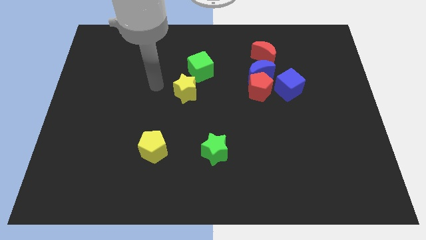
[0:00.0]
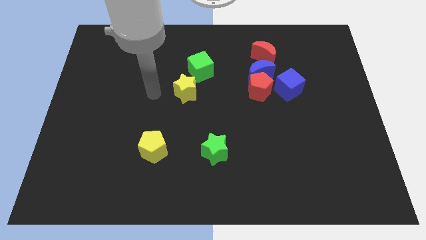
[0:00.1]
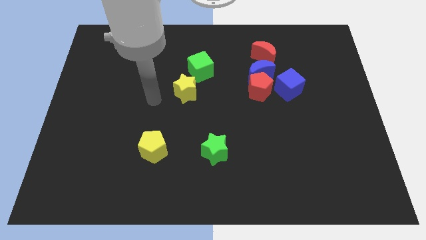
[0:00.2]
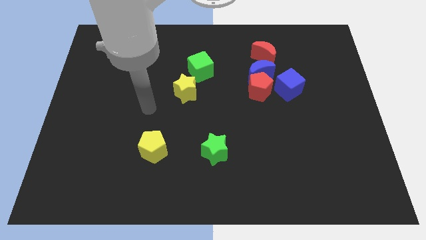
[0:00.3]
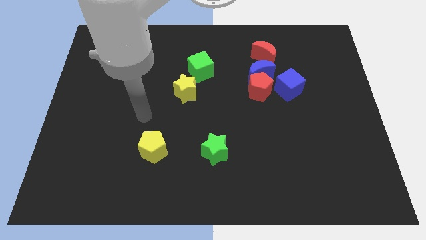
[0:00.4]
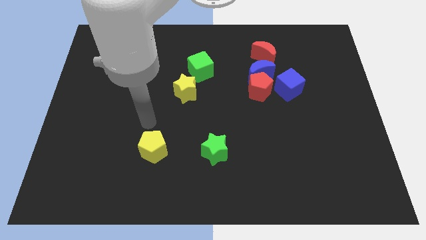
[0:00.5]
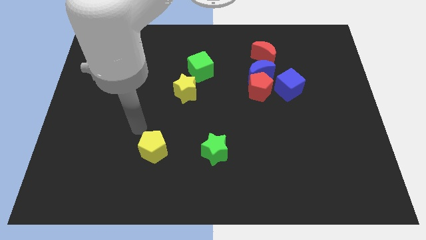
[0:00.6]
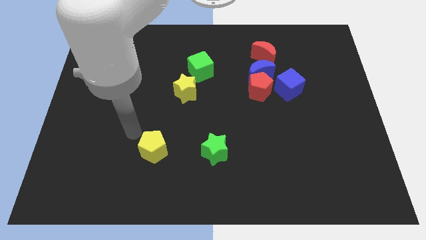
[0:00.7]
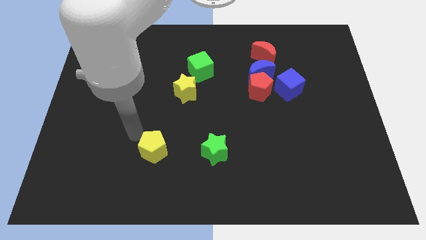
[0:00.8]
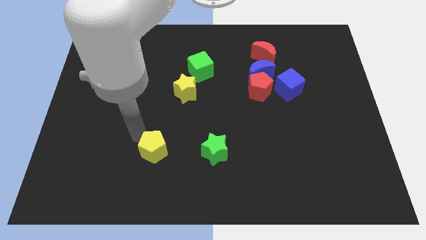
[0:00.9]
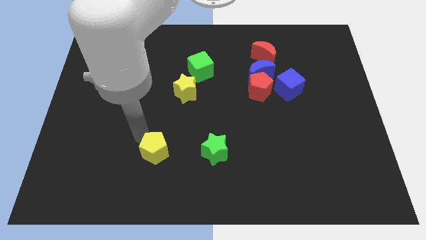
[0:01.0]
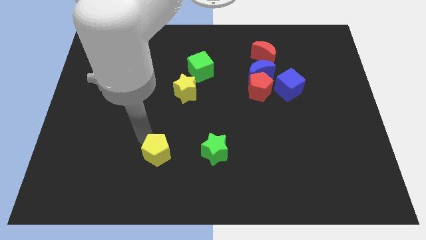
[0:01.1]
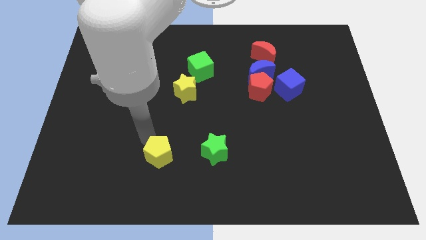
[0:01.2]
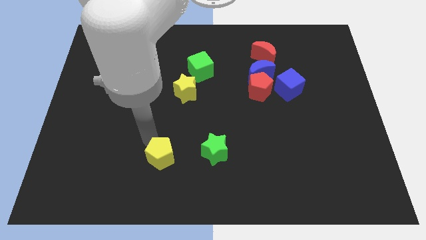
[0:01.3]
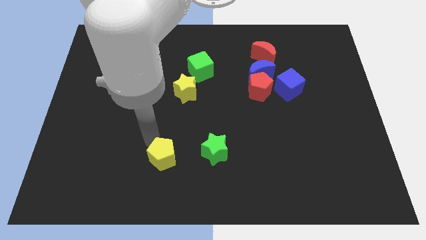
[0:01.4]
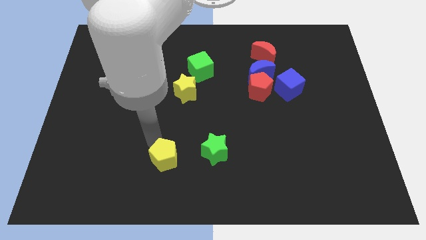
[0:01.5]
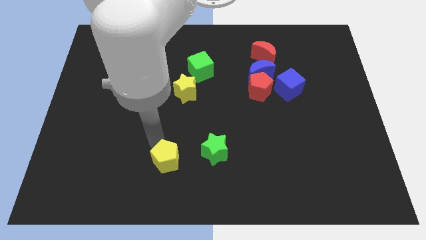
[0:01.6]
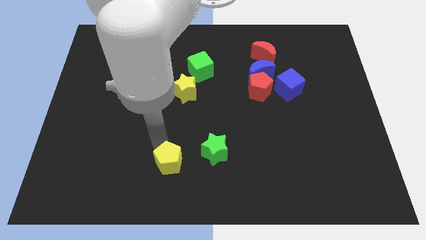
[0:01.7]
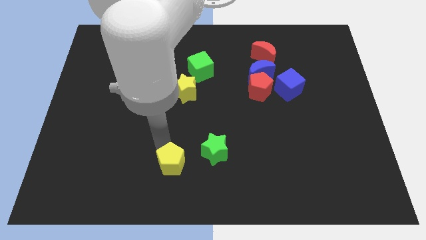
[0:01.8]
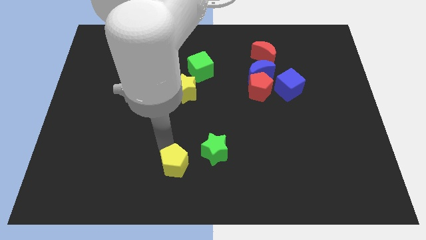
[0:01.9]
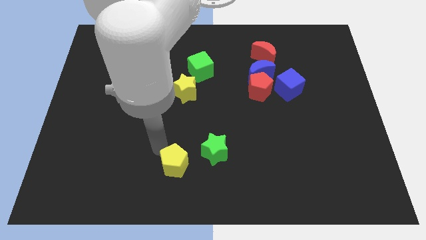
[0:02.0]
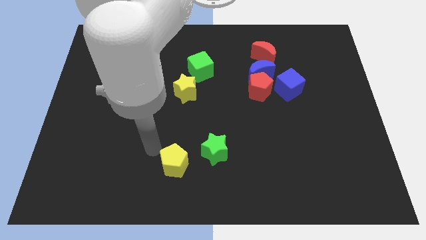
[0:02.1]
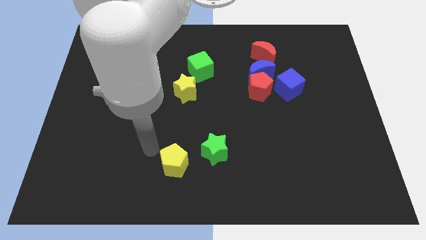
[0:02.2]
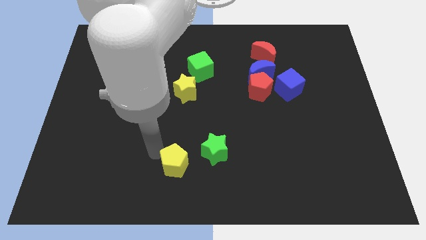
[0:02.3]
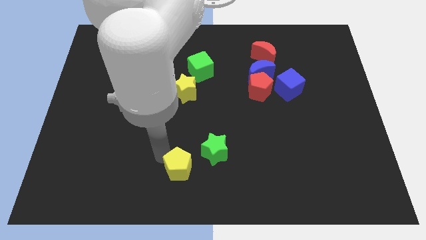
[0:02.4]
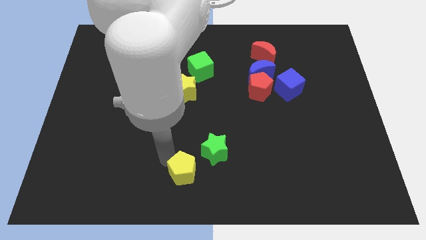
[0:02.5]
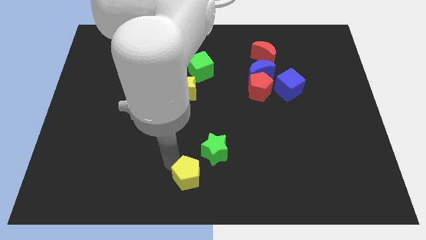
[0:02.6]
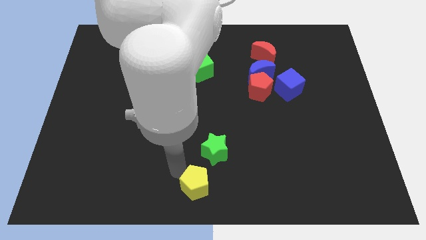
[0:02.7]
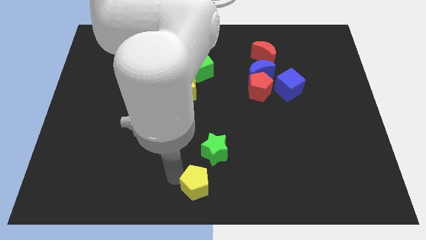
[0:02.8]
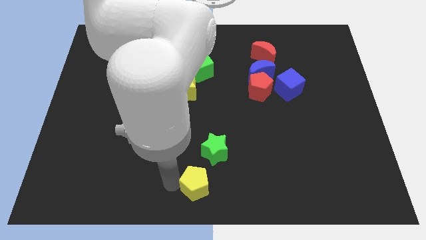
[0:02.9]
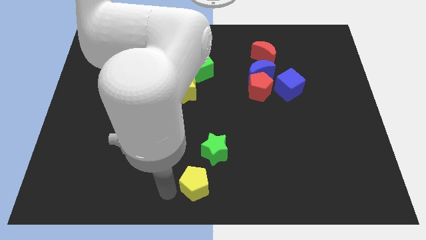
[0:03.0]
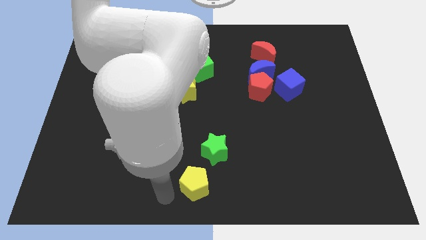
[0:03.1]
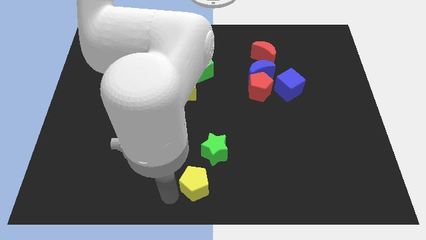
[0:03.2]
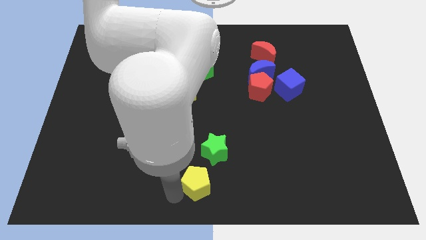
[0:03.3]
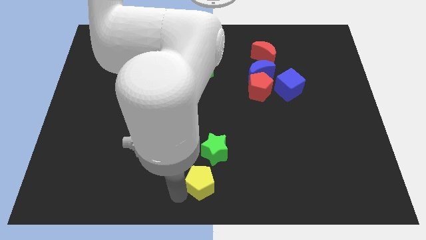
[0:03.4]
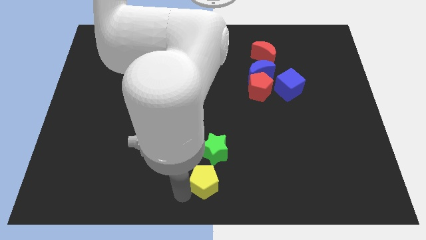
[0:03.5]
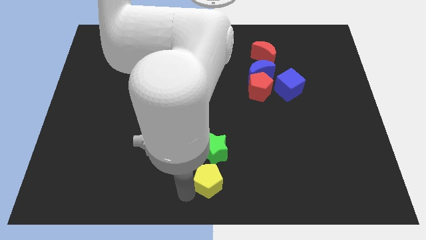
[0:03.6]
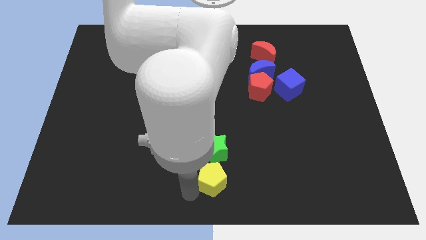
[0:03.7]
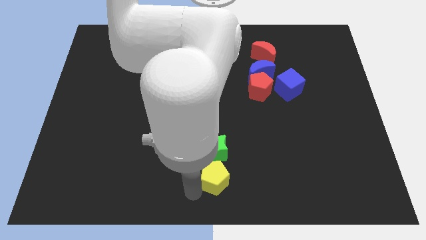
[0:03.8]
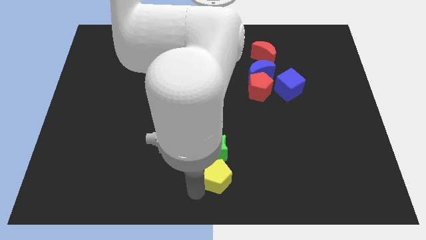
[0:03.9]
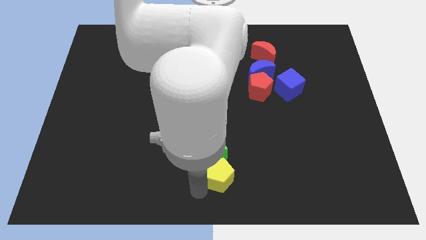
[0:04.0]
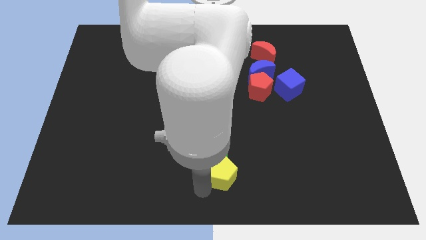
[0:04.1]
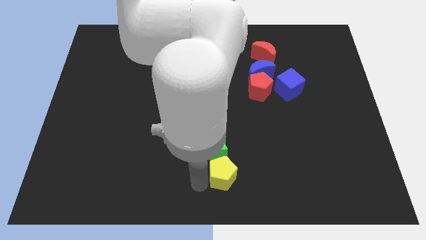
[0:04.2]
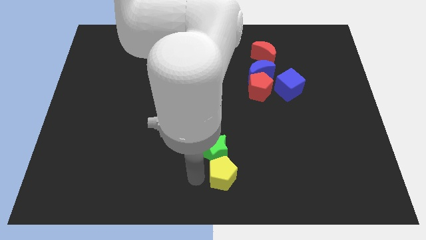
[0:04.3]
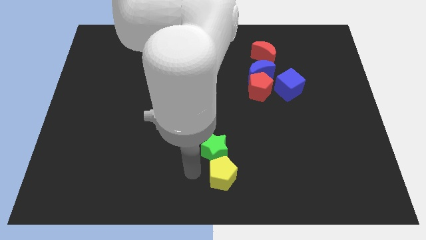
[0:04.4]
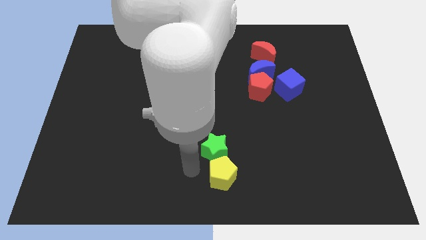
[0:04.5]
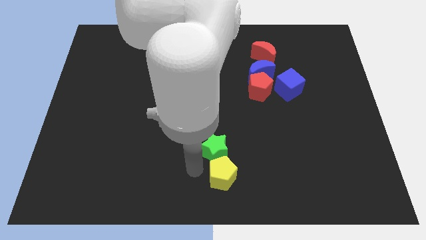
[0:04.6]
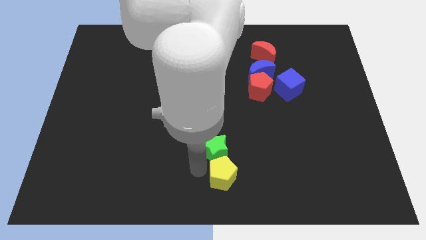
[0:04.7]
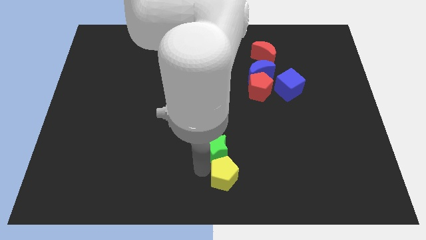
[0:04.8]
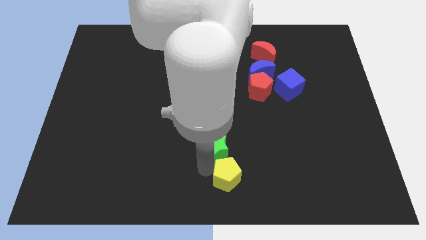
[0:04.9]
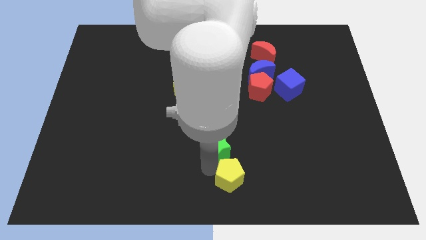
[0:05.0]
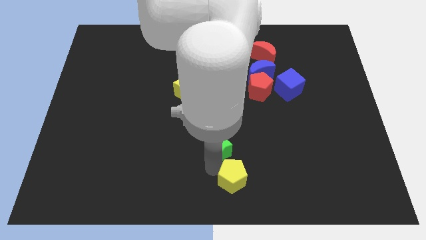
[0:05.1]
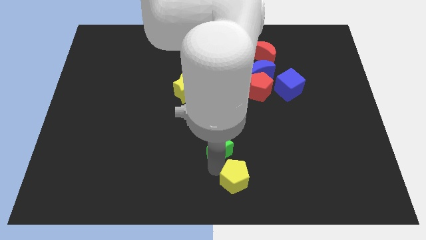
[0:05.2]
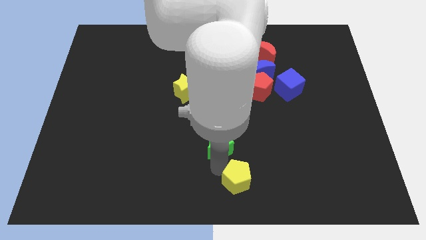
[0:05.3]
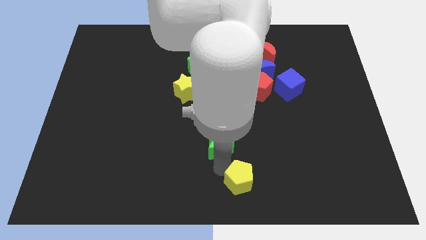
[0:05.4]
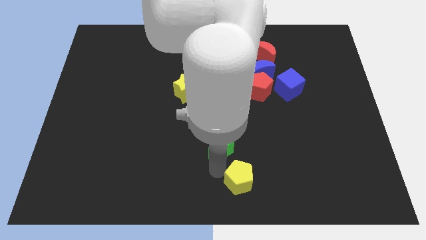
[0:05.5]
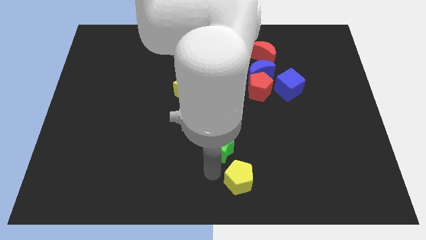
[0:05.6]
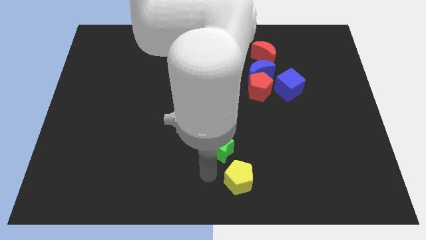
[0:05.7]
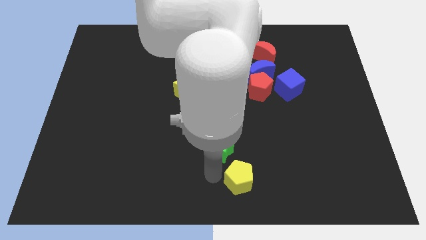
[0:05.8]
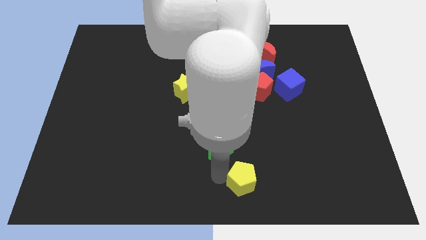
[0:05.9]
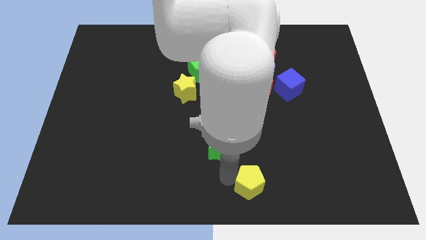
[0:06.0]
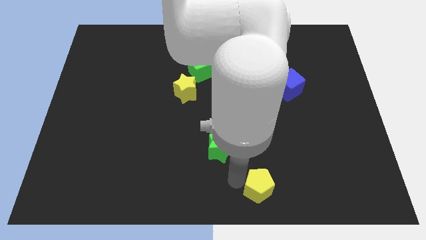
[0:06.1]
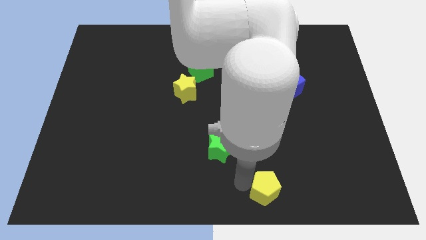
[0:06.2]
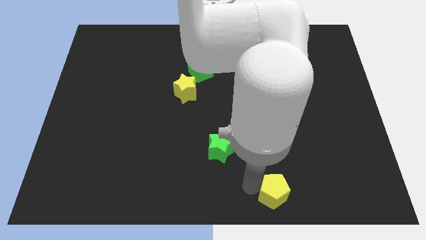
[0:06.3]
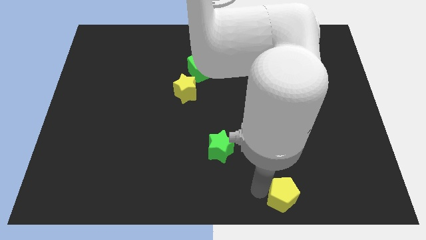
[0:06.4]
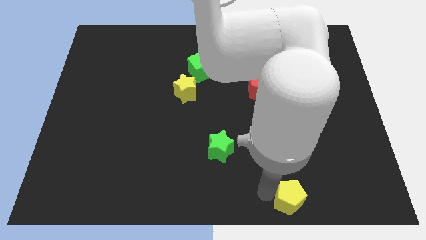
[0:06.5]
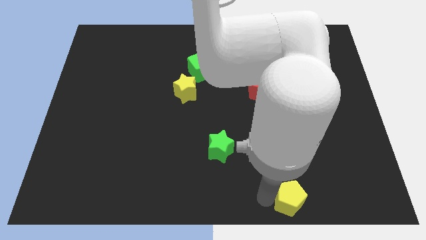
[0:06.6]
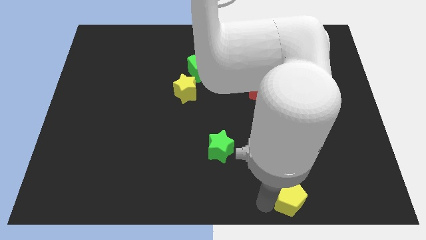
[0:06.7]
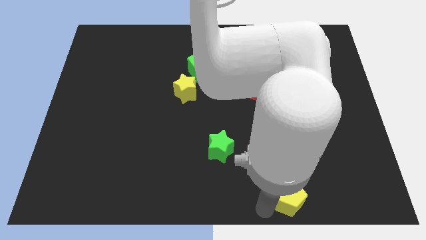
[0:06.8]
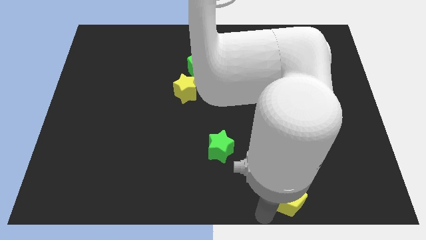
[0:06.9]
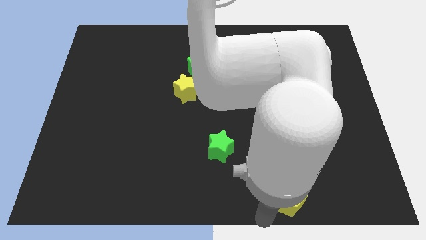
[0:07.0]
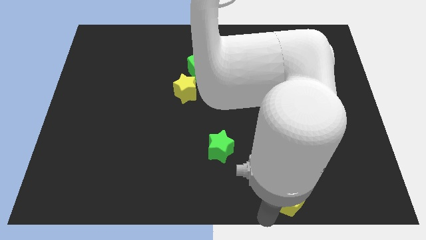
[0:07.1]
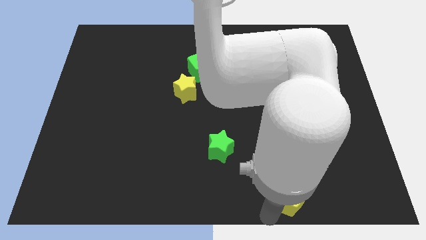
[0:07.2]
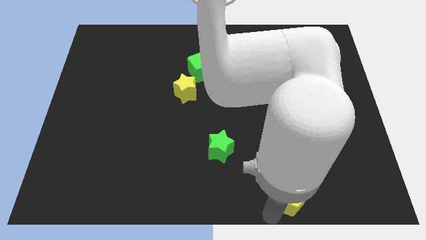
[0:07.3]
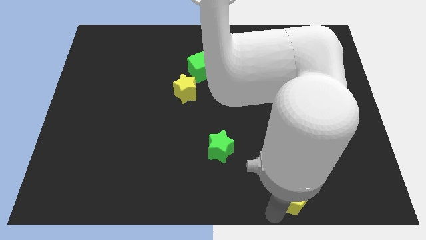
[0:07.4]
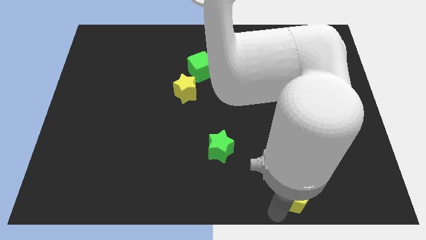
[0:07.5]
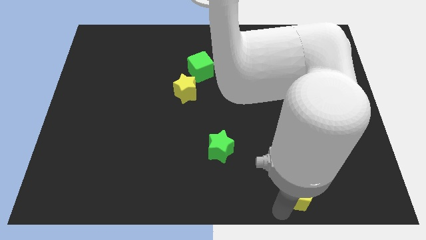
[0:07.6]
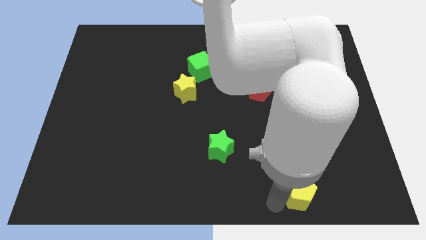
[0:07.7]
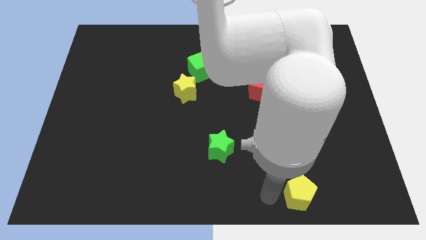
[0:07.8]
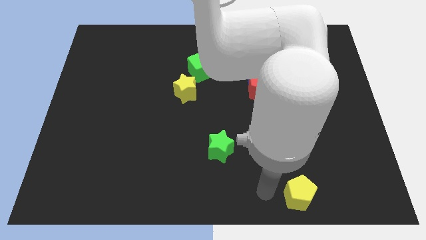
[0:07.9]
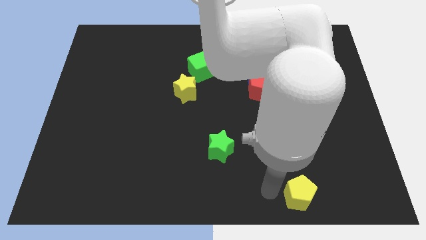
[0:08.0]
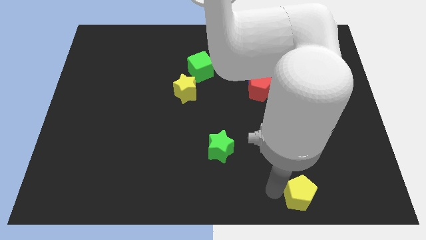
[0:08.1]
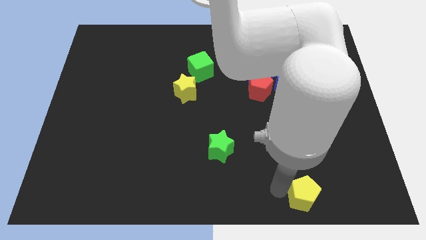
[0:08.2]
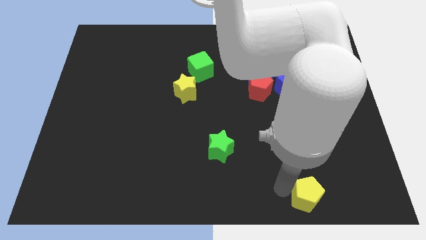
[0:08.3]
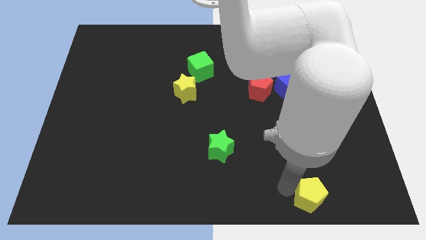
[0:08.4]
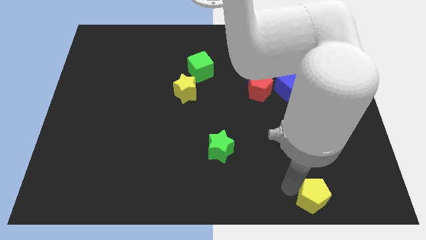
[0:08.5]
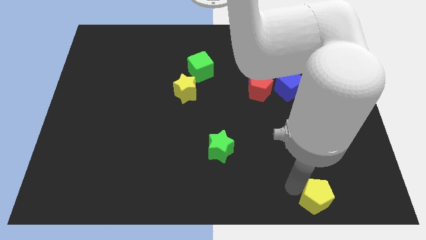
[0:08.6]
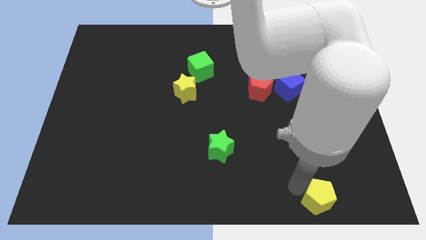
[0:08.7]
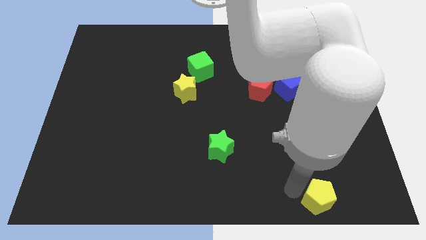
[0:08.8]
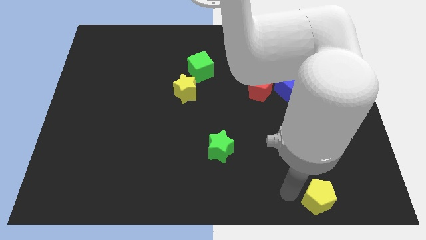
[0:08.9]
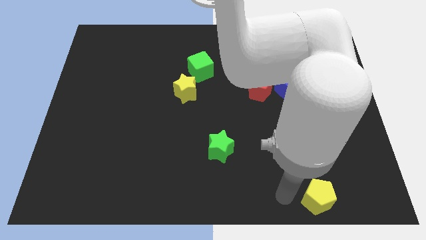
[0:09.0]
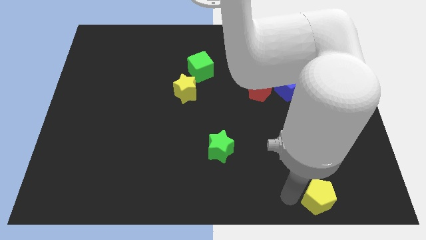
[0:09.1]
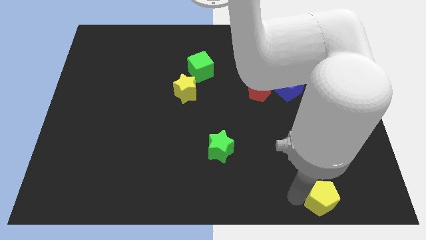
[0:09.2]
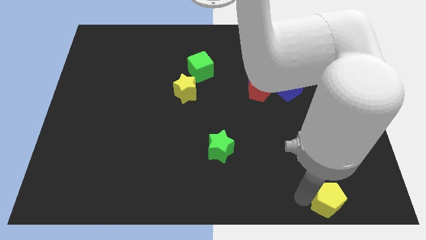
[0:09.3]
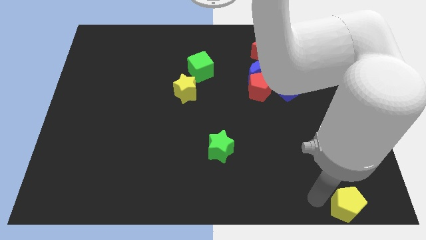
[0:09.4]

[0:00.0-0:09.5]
push the yellow pentagon to the bottom right of the board
